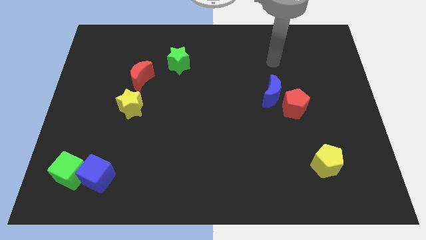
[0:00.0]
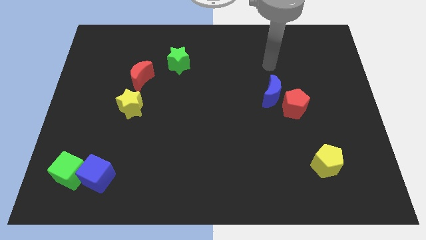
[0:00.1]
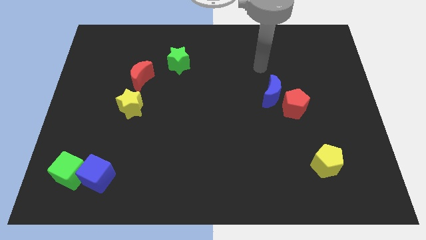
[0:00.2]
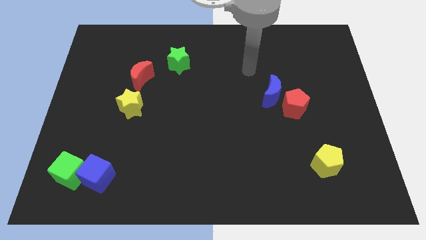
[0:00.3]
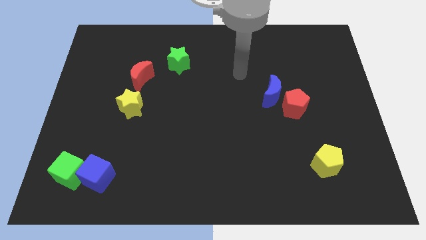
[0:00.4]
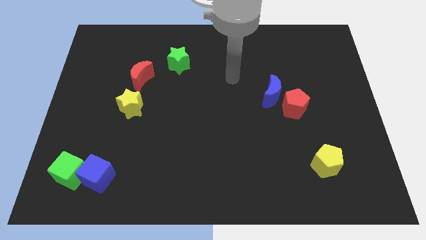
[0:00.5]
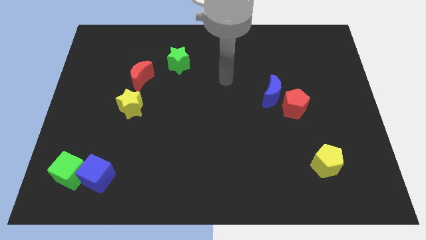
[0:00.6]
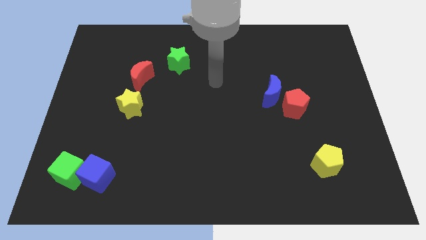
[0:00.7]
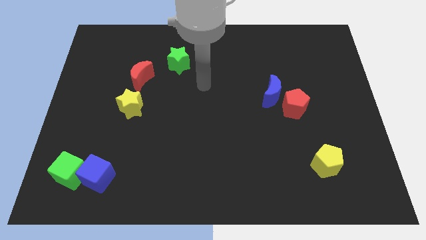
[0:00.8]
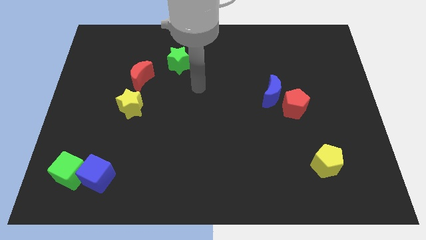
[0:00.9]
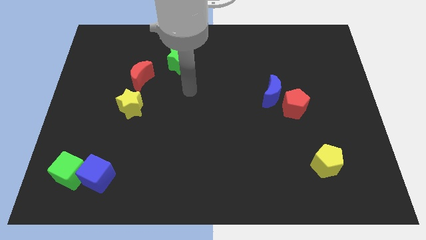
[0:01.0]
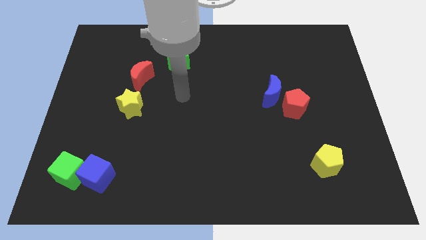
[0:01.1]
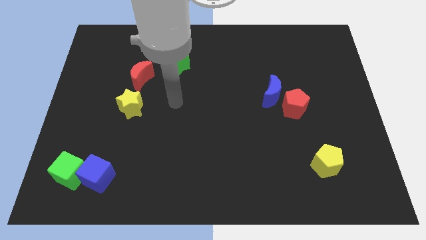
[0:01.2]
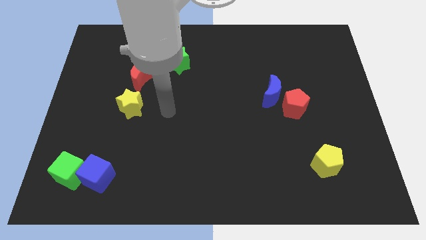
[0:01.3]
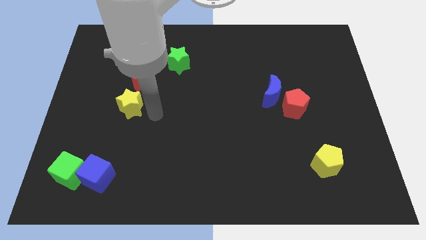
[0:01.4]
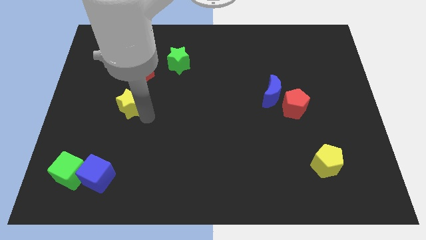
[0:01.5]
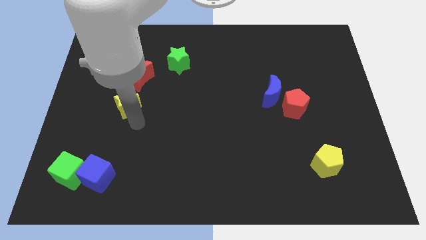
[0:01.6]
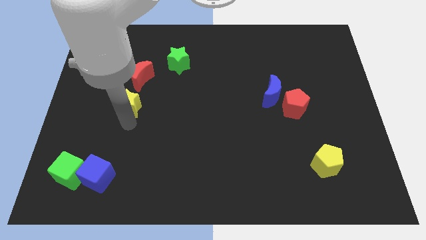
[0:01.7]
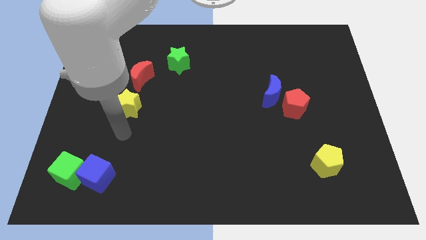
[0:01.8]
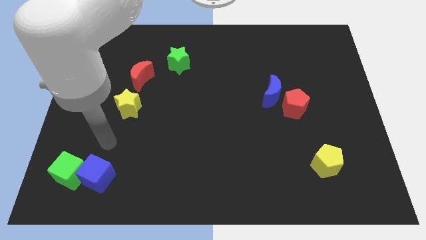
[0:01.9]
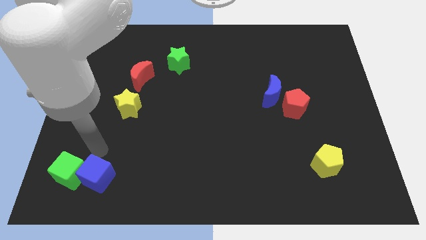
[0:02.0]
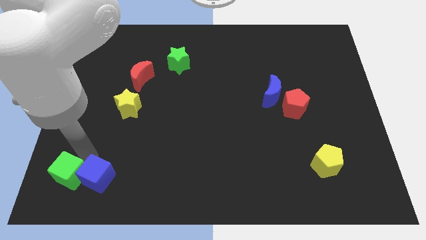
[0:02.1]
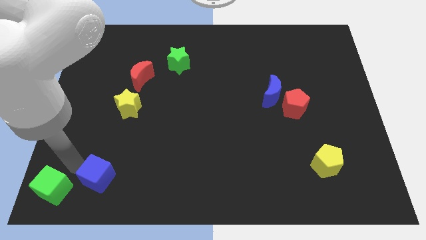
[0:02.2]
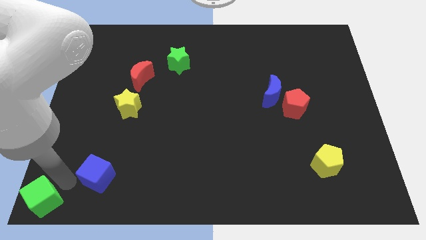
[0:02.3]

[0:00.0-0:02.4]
move the blue cube away from the green cube

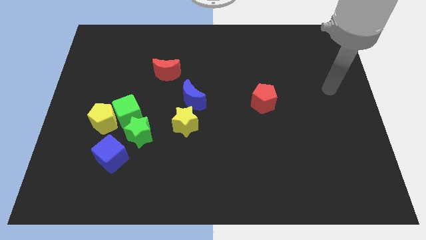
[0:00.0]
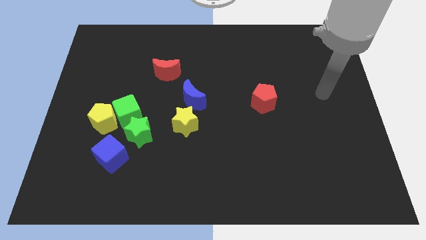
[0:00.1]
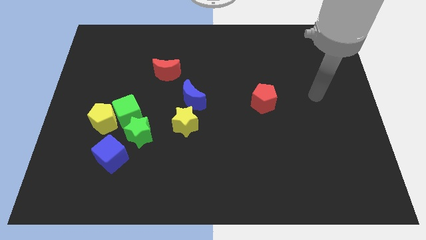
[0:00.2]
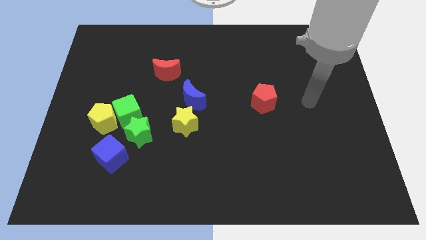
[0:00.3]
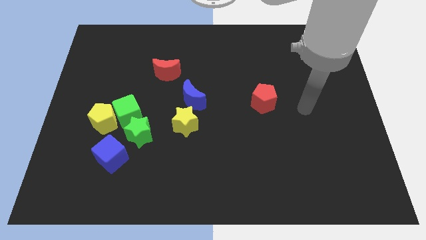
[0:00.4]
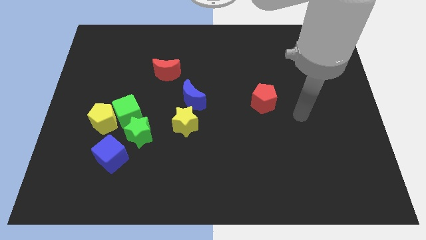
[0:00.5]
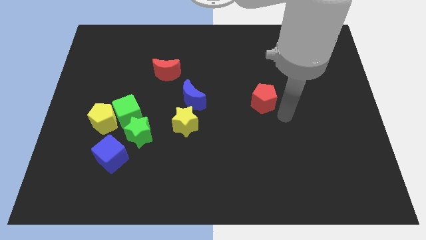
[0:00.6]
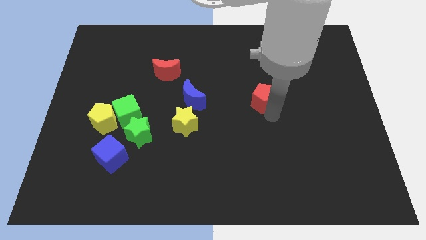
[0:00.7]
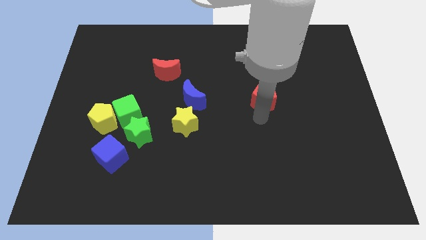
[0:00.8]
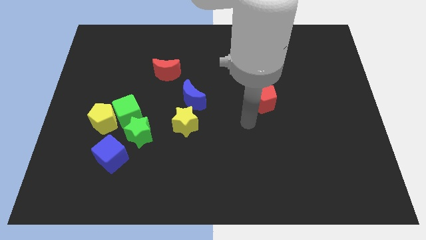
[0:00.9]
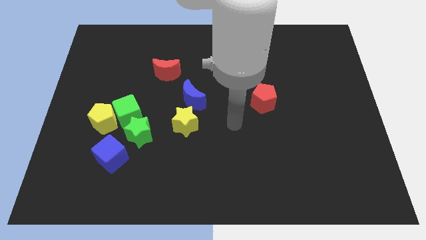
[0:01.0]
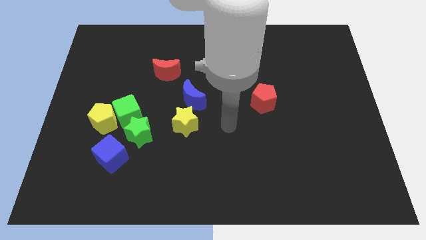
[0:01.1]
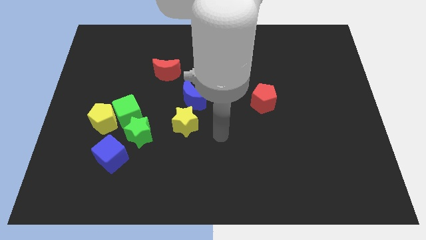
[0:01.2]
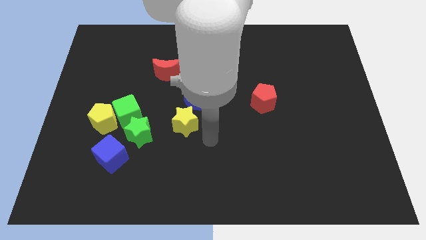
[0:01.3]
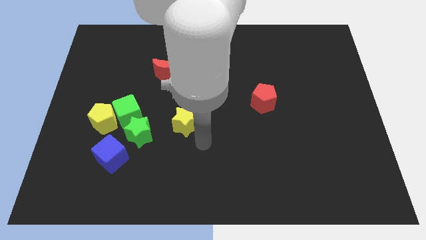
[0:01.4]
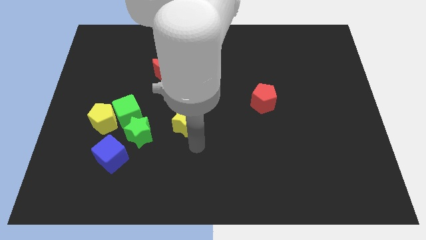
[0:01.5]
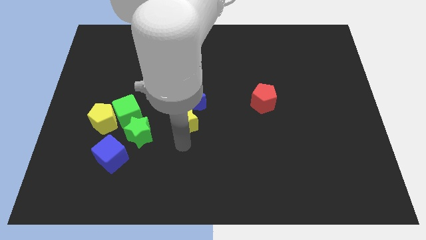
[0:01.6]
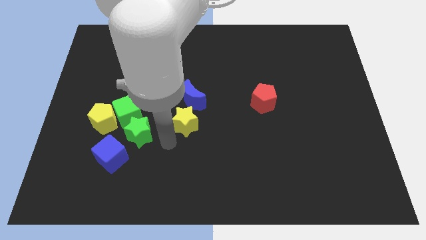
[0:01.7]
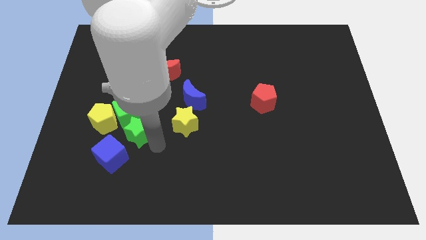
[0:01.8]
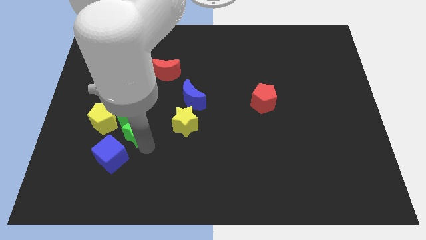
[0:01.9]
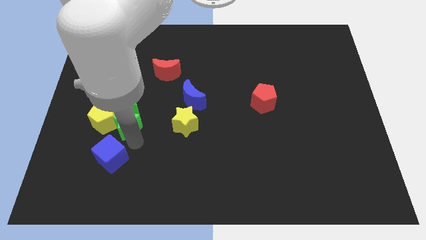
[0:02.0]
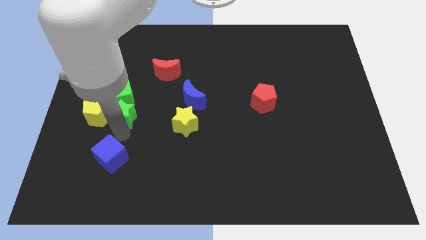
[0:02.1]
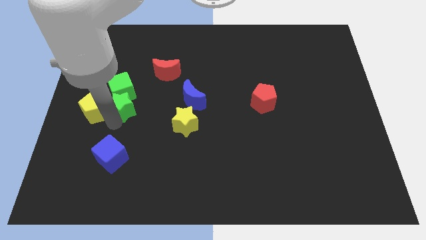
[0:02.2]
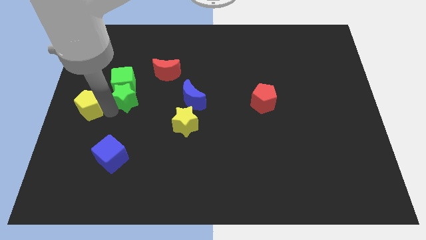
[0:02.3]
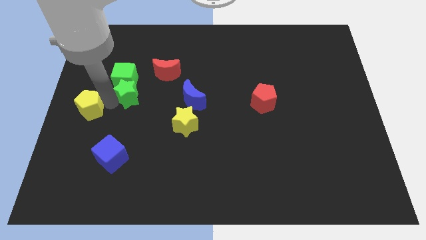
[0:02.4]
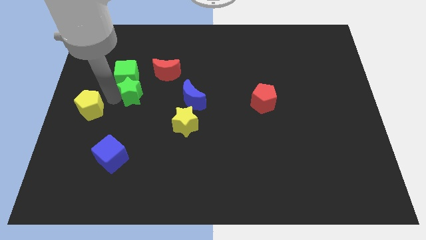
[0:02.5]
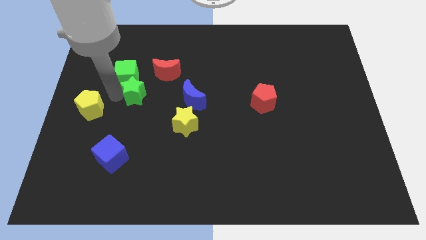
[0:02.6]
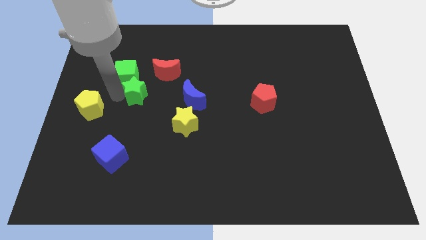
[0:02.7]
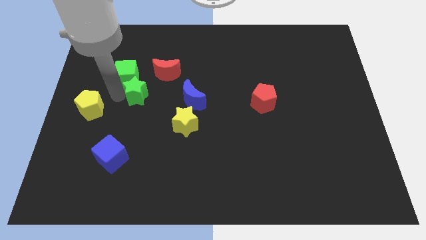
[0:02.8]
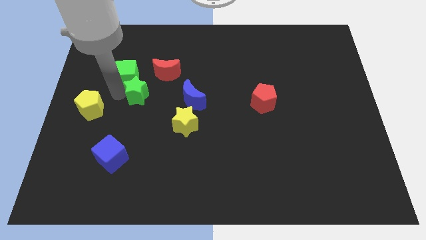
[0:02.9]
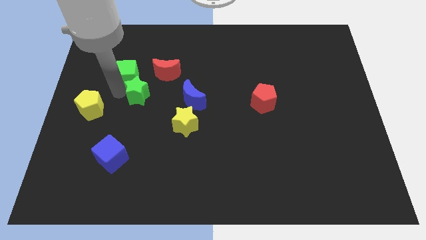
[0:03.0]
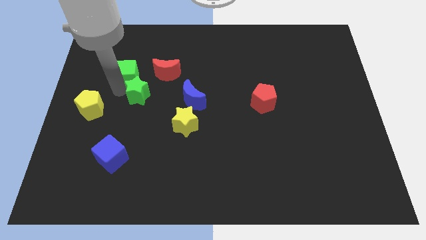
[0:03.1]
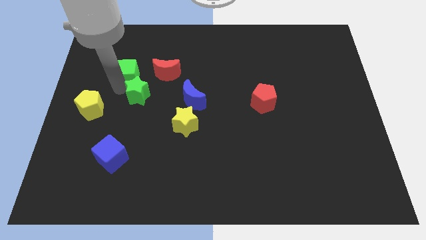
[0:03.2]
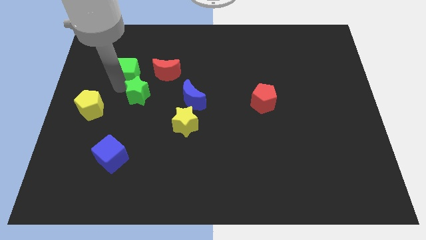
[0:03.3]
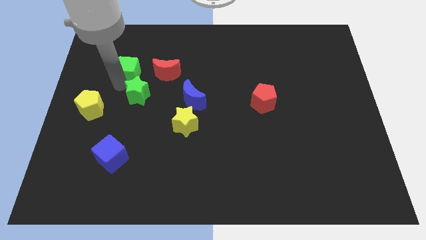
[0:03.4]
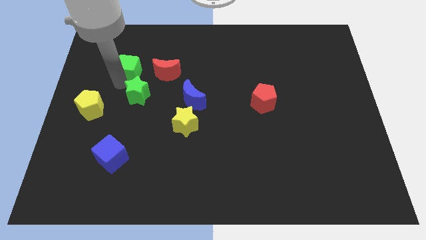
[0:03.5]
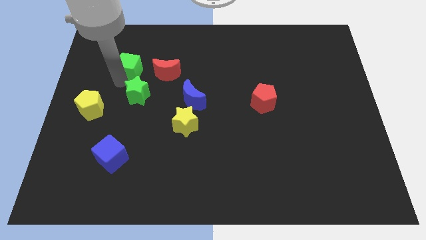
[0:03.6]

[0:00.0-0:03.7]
separate the green cube from the yellow pentagon and green star

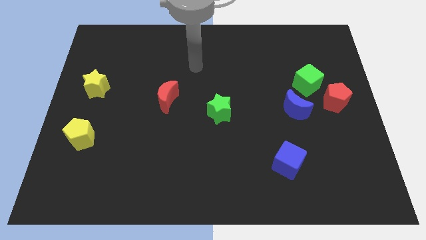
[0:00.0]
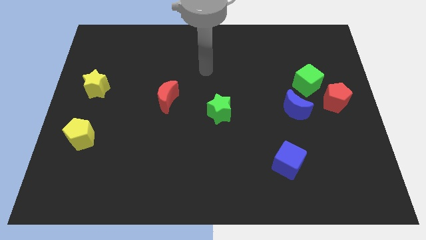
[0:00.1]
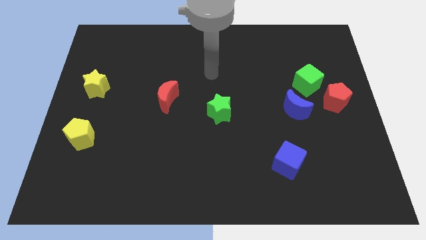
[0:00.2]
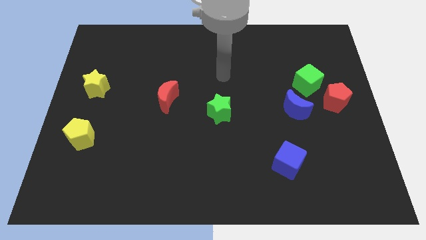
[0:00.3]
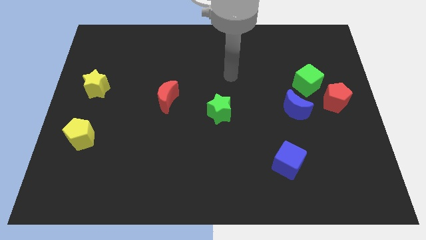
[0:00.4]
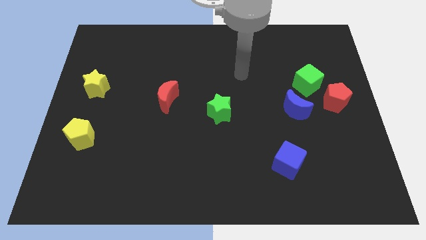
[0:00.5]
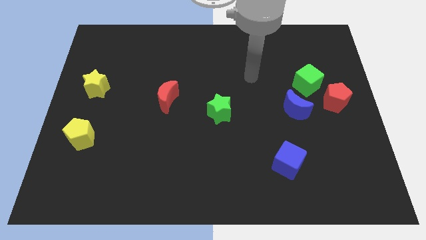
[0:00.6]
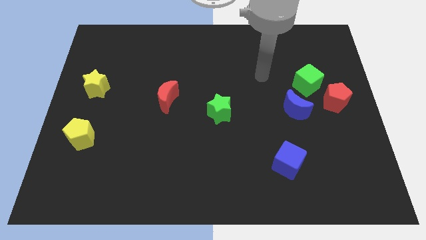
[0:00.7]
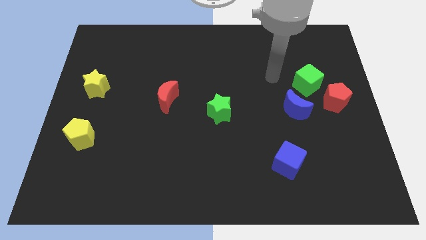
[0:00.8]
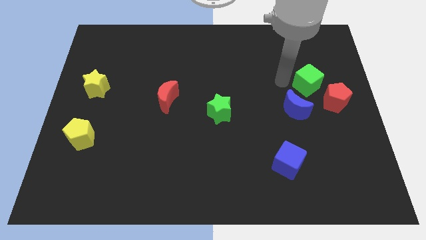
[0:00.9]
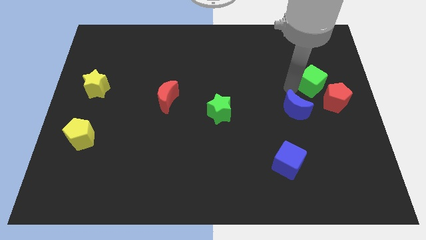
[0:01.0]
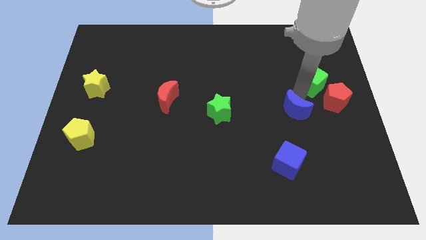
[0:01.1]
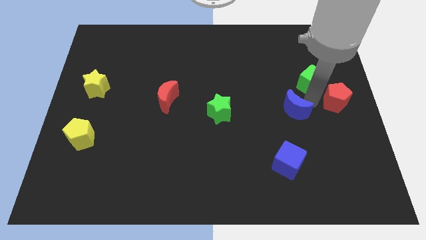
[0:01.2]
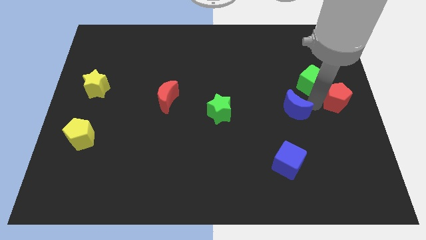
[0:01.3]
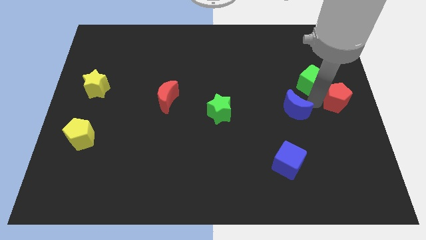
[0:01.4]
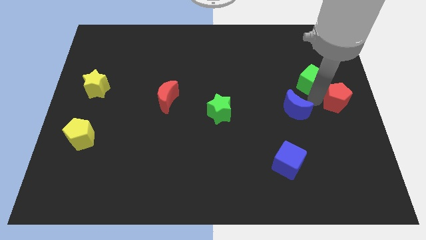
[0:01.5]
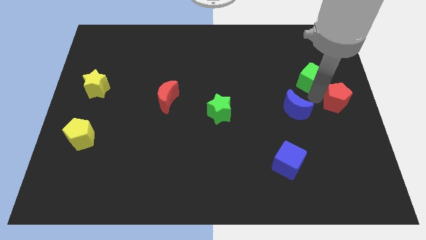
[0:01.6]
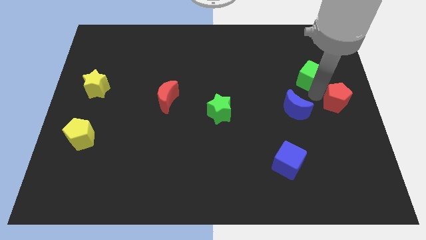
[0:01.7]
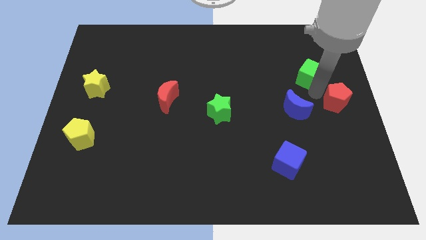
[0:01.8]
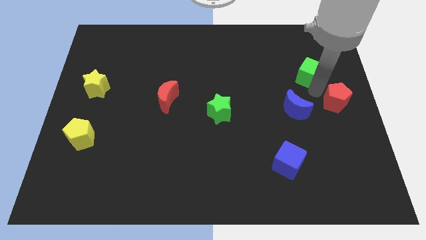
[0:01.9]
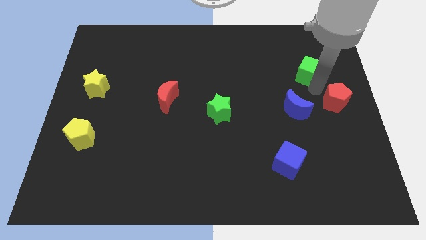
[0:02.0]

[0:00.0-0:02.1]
pull the green cube apart from the red pentagon and blue moon

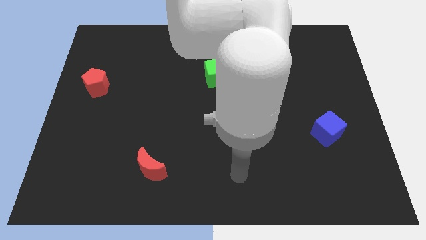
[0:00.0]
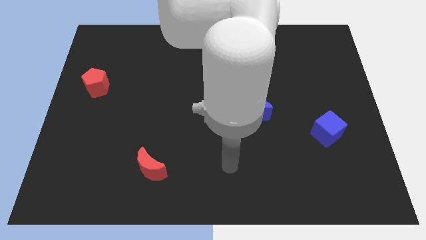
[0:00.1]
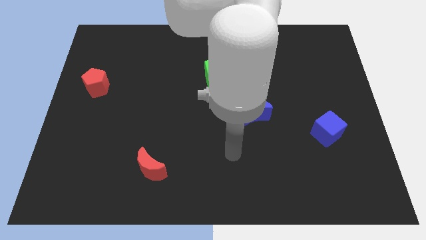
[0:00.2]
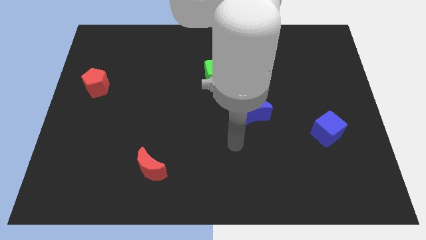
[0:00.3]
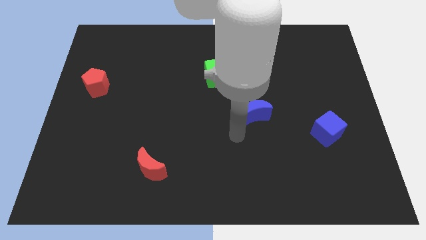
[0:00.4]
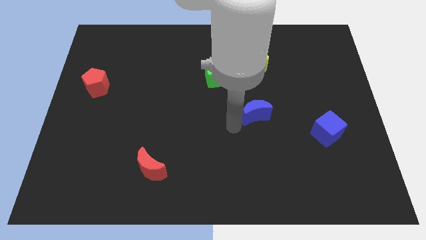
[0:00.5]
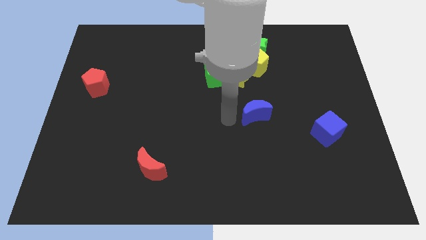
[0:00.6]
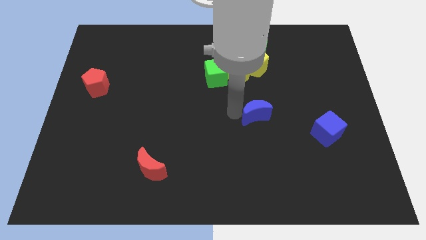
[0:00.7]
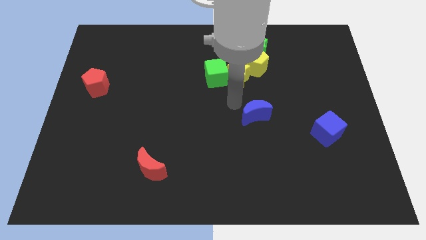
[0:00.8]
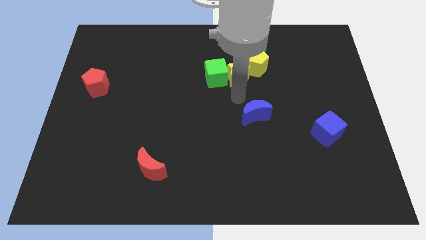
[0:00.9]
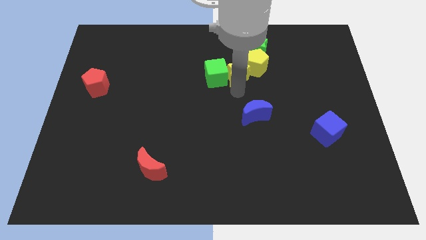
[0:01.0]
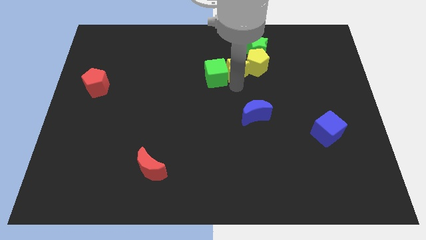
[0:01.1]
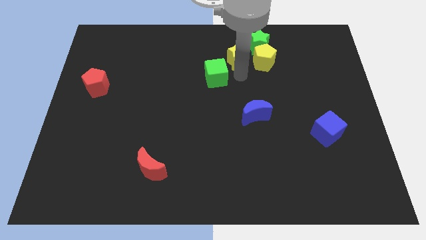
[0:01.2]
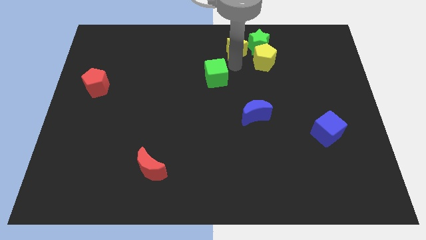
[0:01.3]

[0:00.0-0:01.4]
separate the green cube from the yellow star
